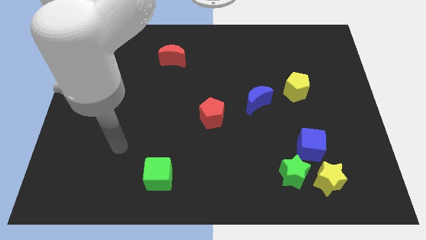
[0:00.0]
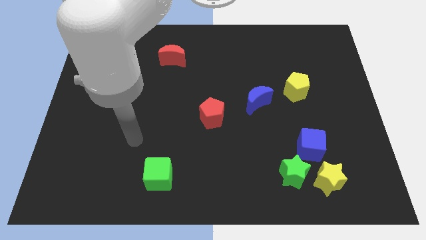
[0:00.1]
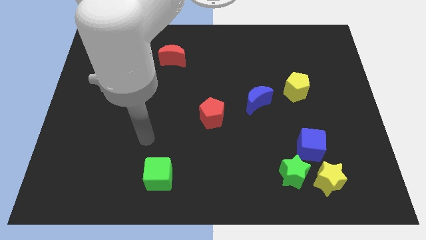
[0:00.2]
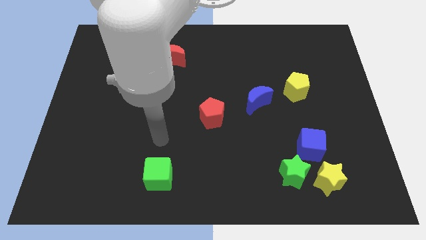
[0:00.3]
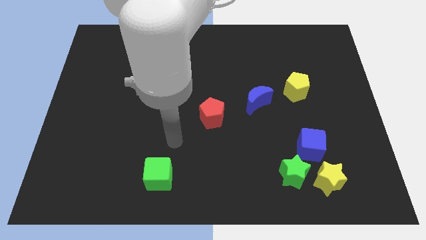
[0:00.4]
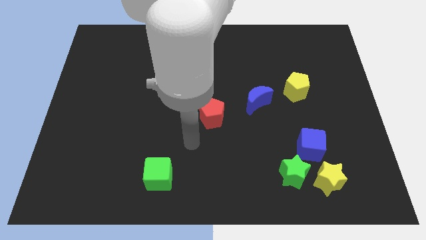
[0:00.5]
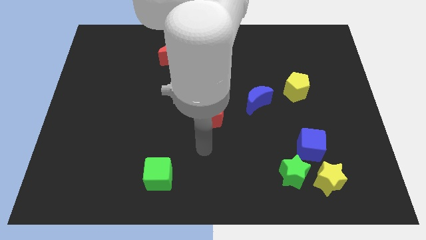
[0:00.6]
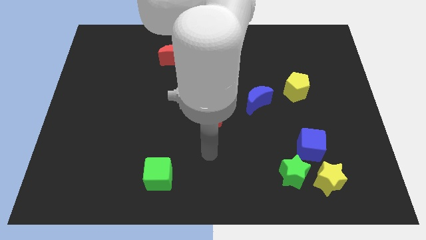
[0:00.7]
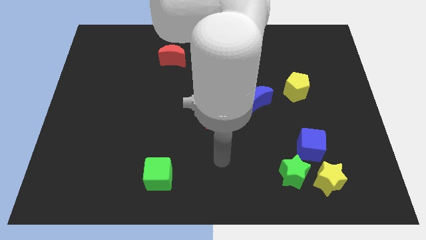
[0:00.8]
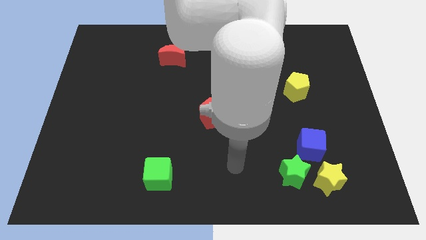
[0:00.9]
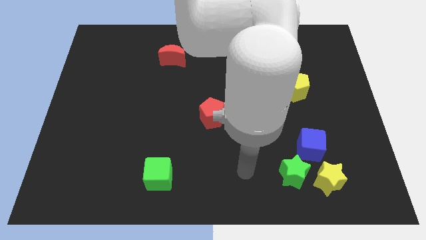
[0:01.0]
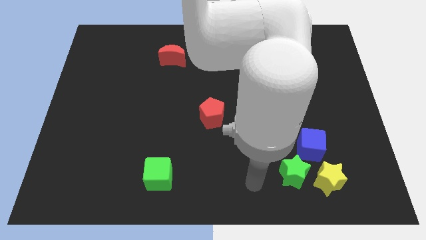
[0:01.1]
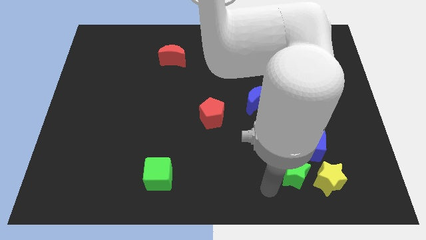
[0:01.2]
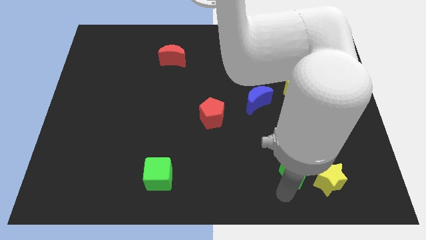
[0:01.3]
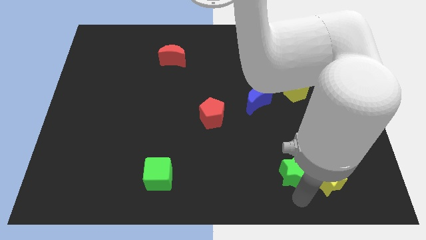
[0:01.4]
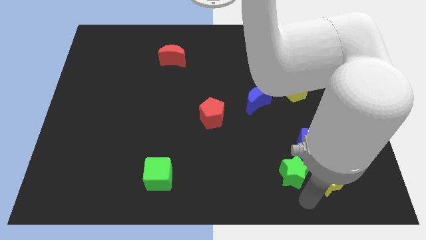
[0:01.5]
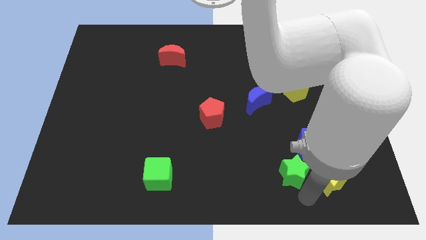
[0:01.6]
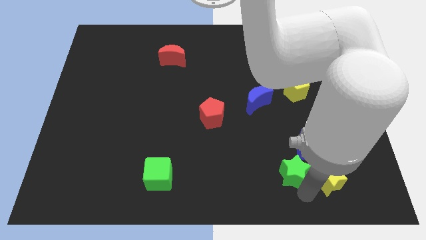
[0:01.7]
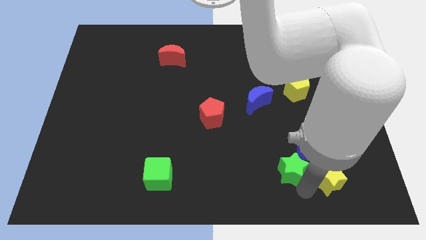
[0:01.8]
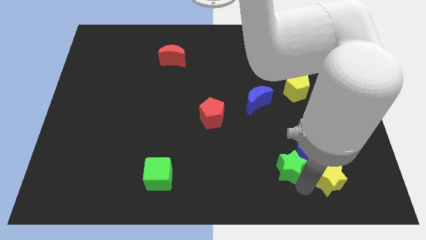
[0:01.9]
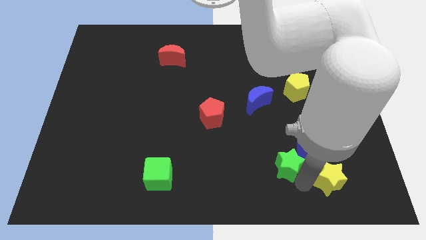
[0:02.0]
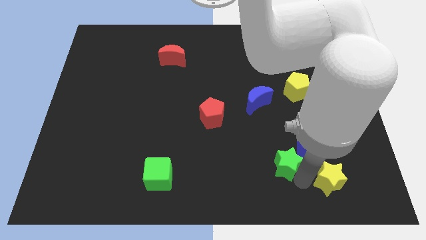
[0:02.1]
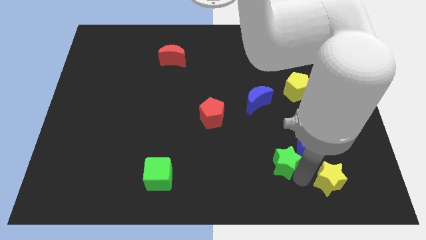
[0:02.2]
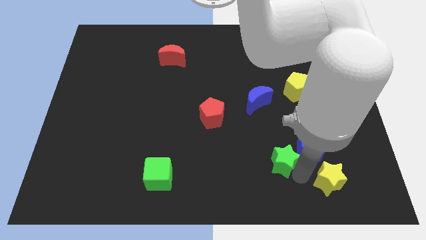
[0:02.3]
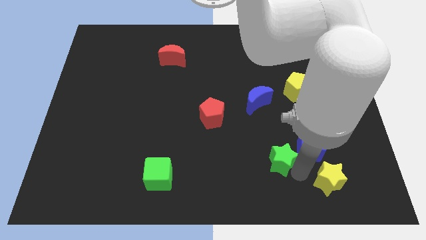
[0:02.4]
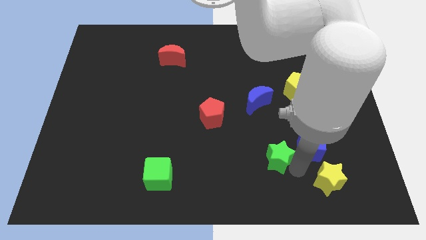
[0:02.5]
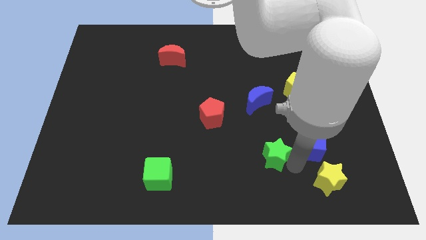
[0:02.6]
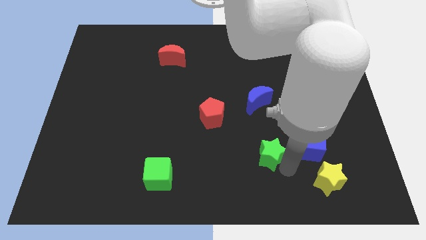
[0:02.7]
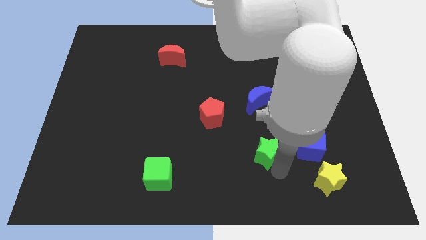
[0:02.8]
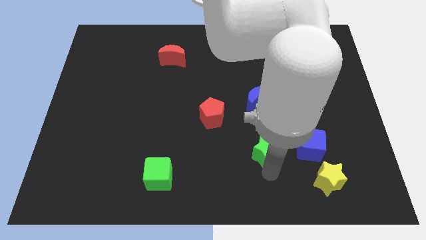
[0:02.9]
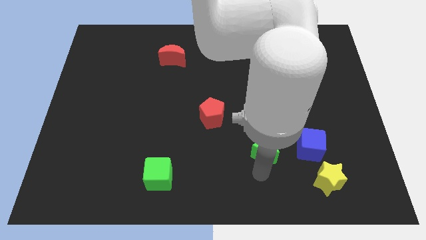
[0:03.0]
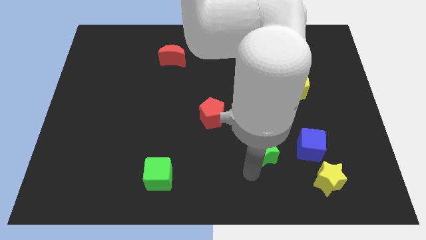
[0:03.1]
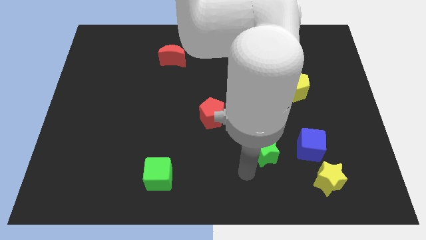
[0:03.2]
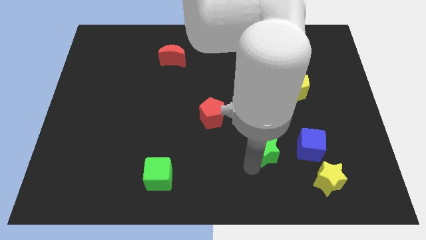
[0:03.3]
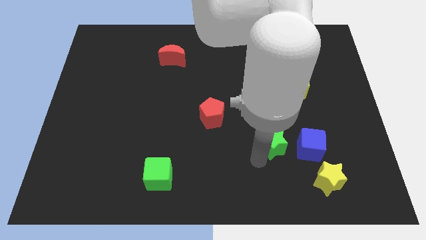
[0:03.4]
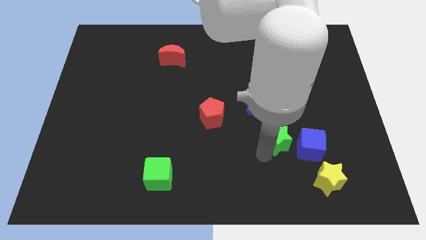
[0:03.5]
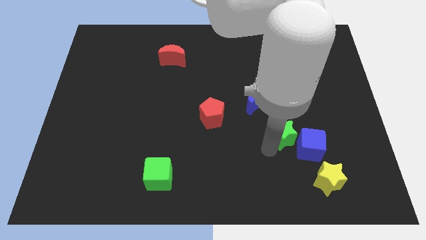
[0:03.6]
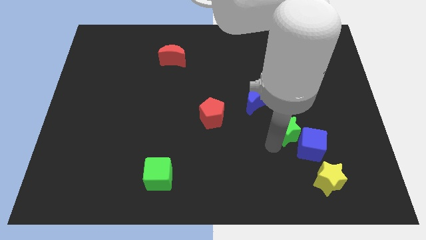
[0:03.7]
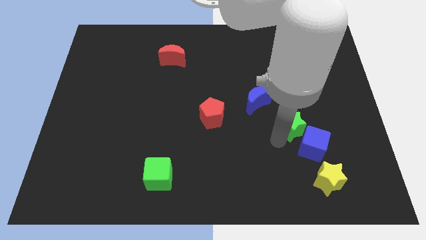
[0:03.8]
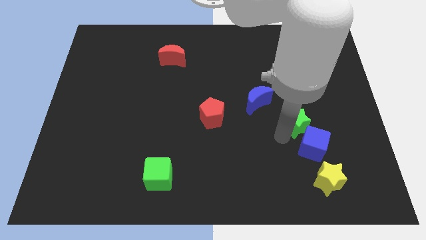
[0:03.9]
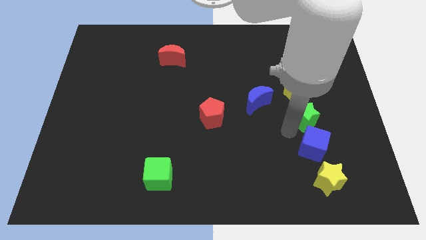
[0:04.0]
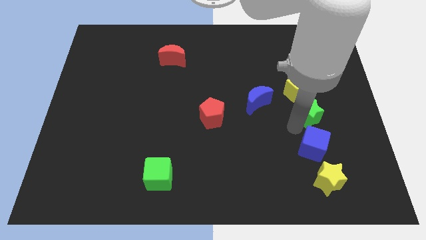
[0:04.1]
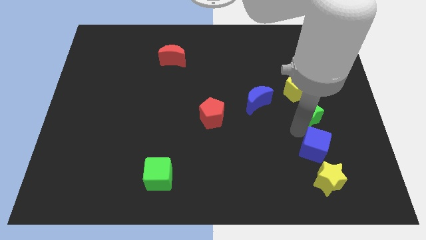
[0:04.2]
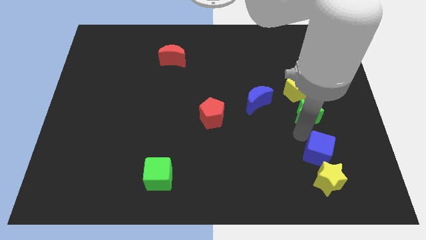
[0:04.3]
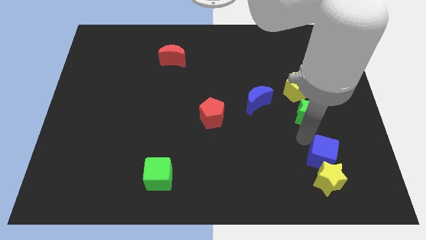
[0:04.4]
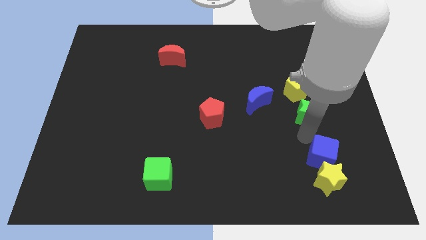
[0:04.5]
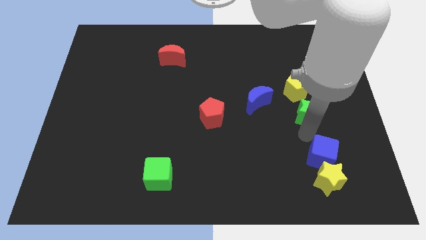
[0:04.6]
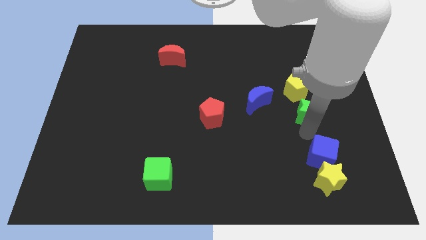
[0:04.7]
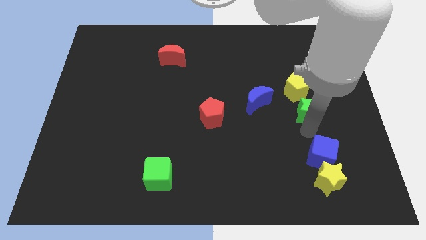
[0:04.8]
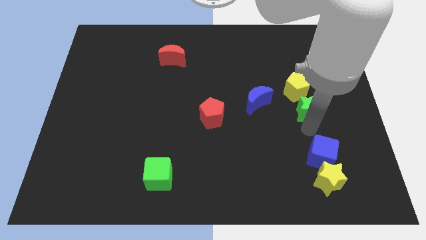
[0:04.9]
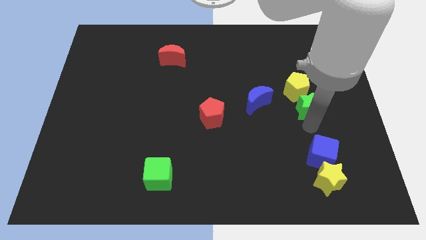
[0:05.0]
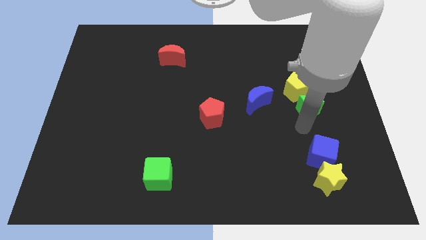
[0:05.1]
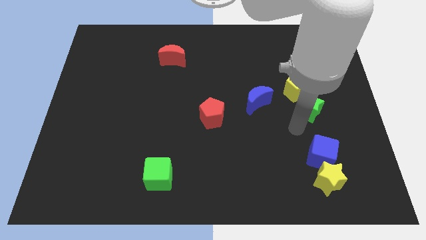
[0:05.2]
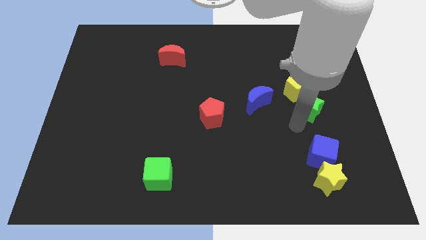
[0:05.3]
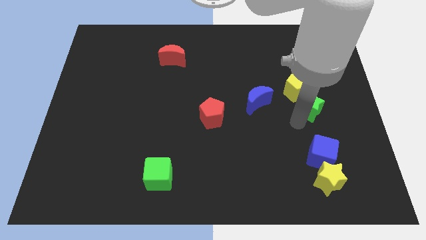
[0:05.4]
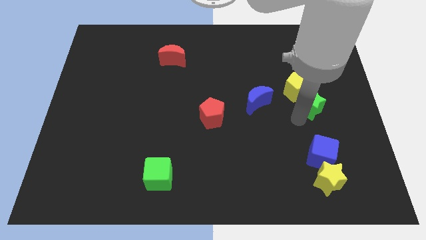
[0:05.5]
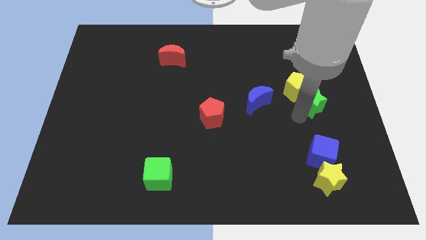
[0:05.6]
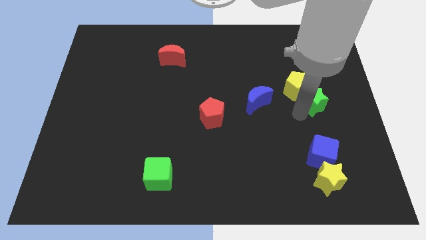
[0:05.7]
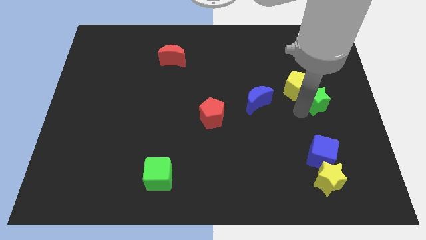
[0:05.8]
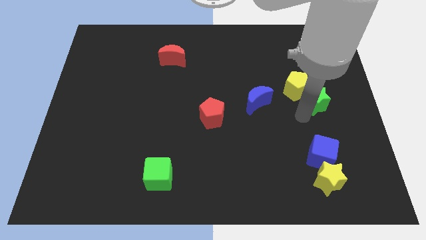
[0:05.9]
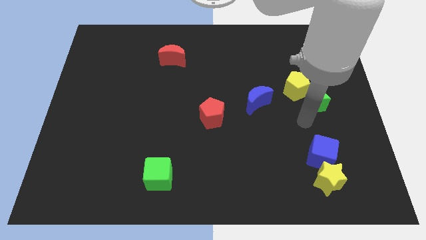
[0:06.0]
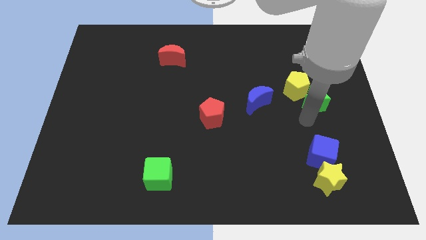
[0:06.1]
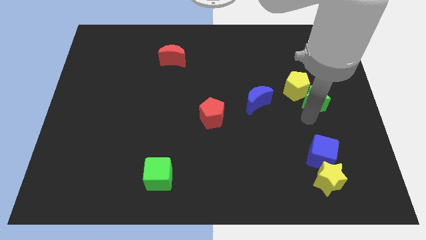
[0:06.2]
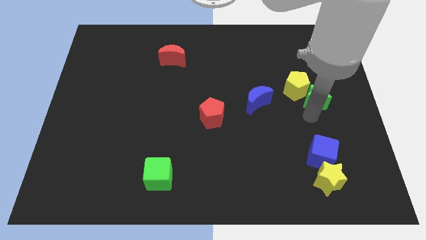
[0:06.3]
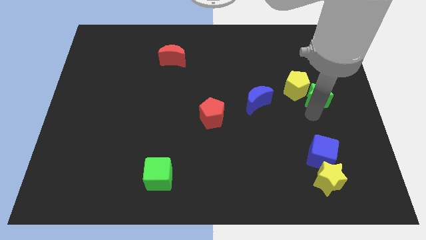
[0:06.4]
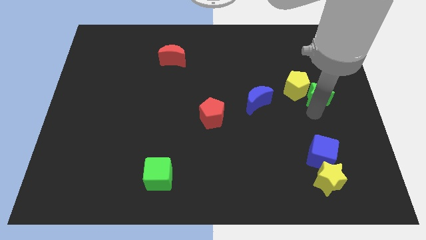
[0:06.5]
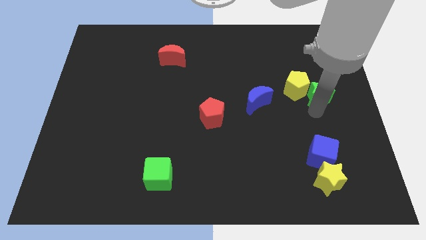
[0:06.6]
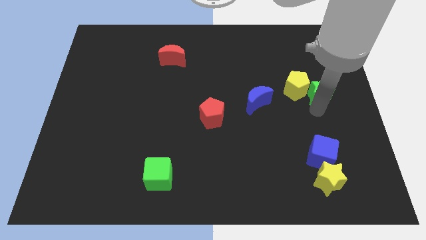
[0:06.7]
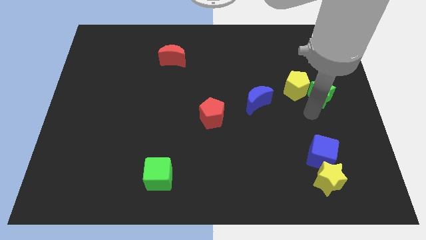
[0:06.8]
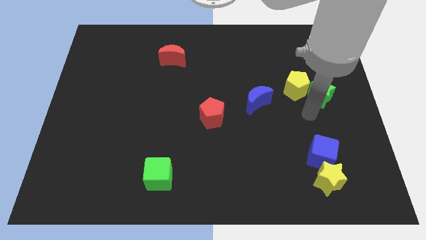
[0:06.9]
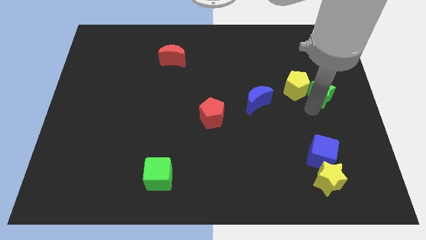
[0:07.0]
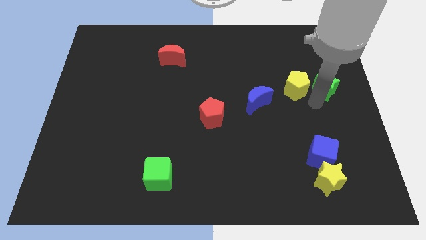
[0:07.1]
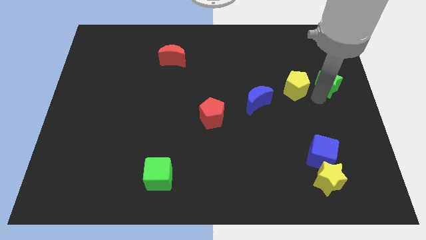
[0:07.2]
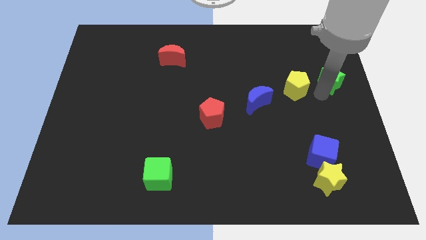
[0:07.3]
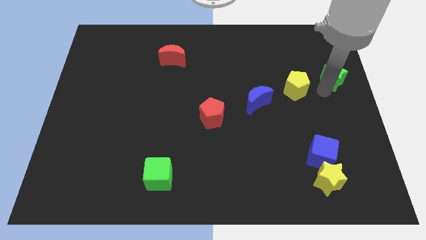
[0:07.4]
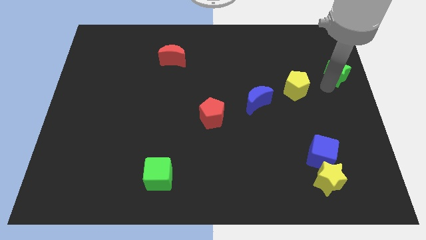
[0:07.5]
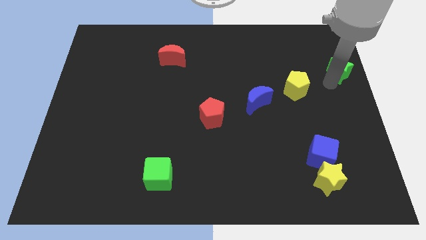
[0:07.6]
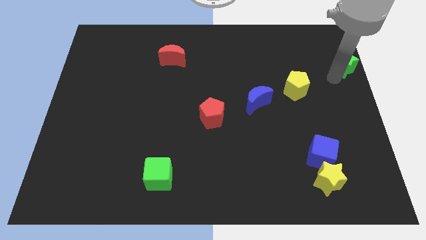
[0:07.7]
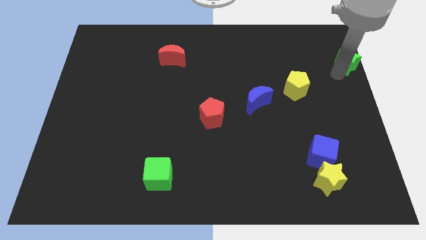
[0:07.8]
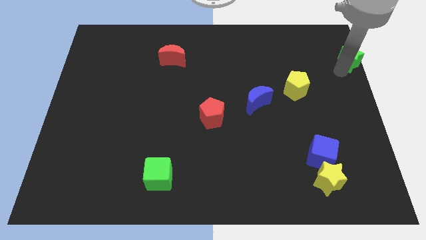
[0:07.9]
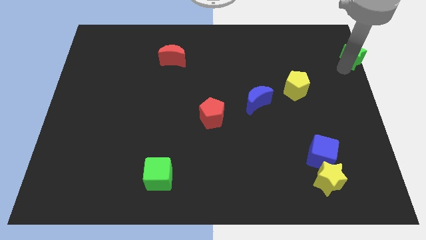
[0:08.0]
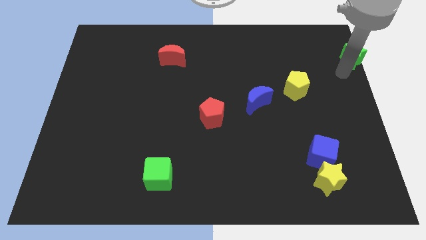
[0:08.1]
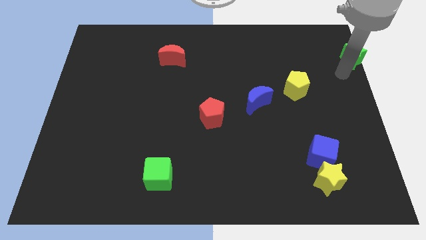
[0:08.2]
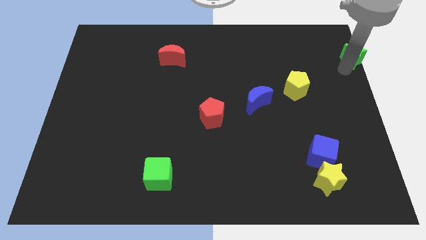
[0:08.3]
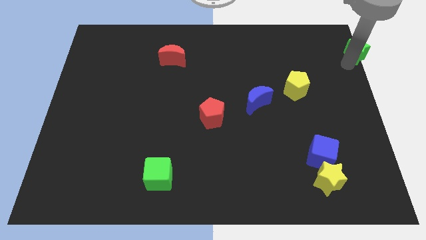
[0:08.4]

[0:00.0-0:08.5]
slide the green star to the top right of the board
